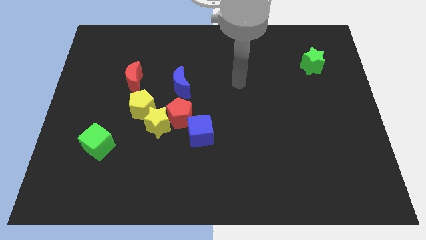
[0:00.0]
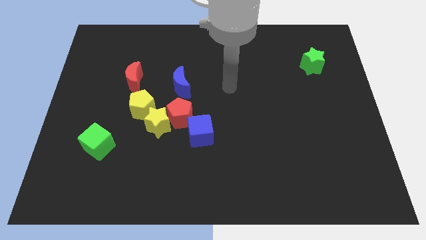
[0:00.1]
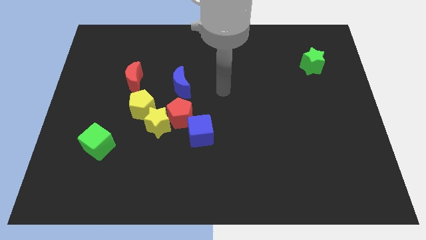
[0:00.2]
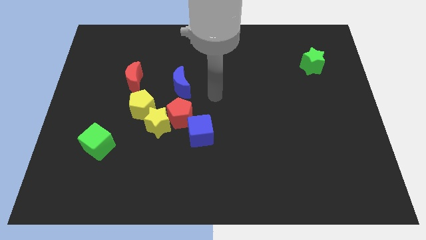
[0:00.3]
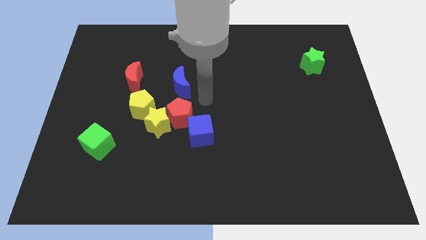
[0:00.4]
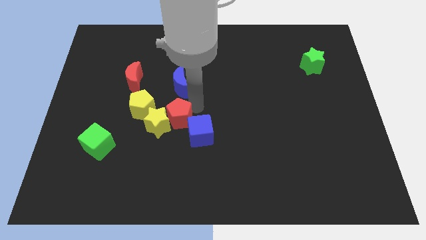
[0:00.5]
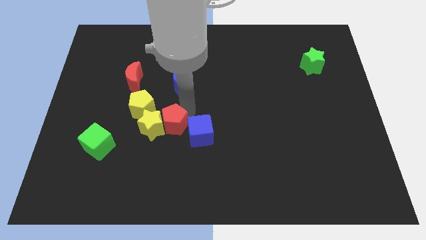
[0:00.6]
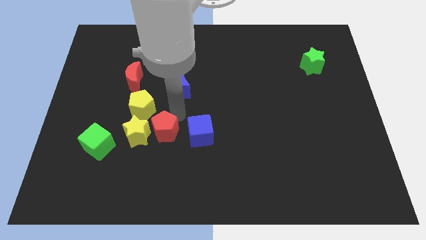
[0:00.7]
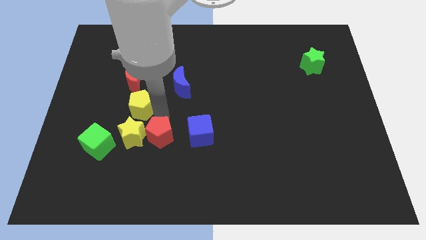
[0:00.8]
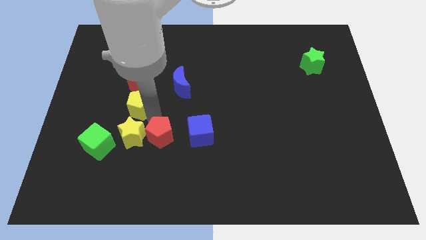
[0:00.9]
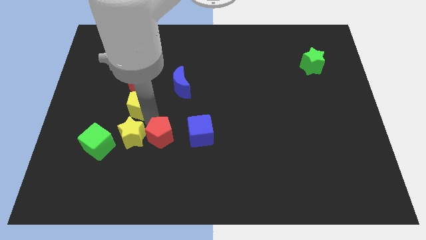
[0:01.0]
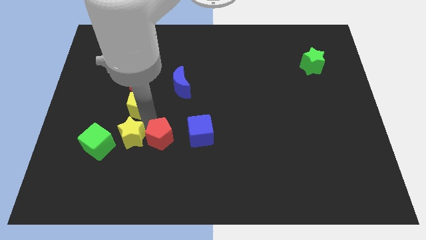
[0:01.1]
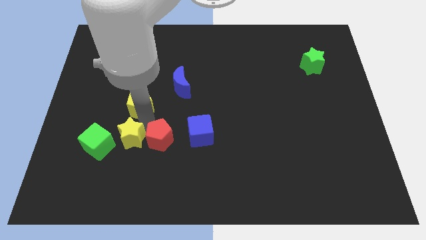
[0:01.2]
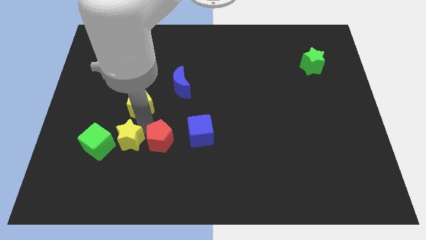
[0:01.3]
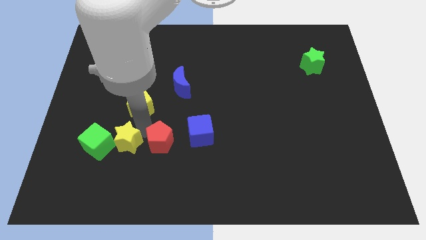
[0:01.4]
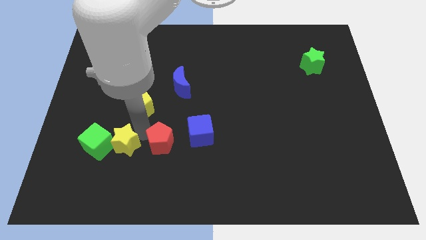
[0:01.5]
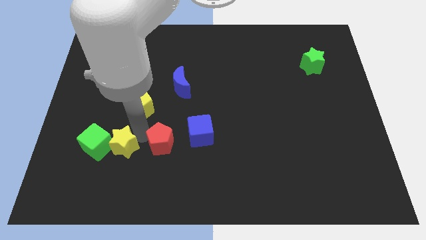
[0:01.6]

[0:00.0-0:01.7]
move the yellow star away from the red pentagon, yellow pentagon, and blue cube

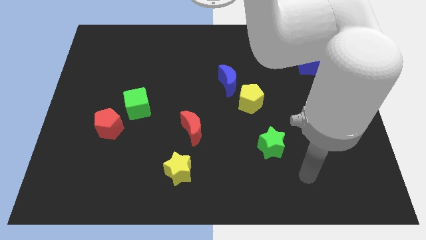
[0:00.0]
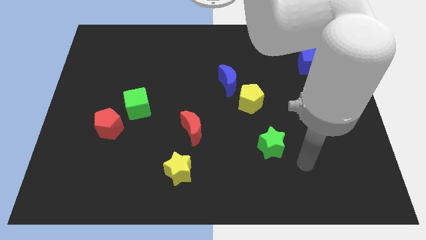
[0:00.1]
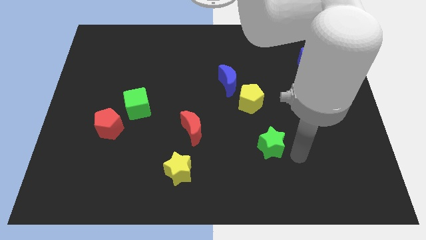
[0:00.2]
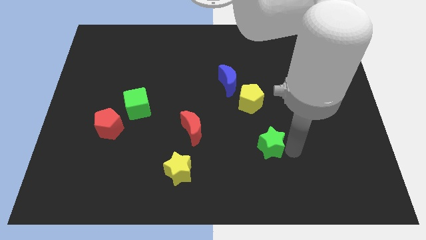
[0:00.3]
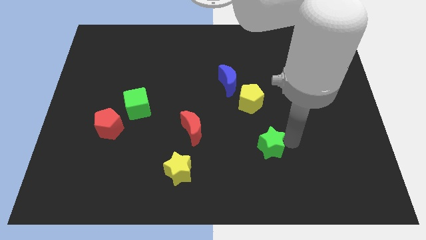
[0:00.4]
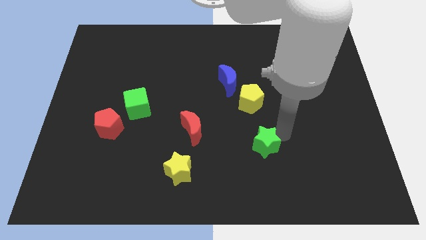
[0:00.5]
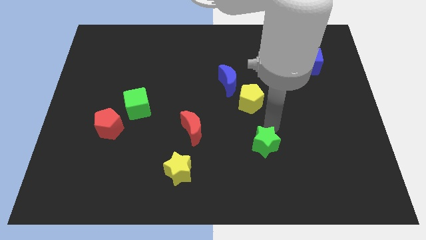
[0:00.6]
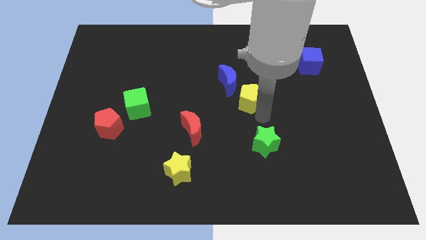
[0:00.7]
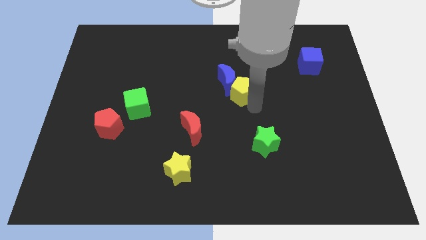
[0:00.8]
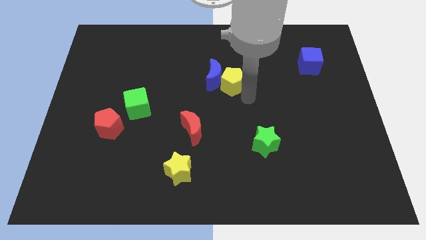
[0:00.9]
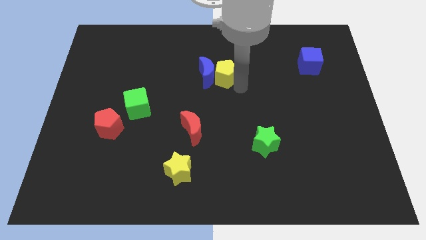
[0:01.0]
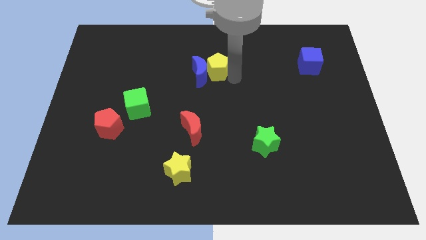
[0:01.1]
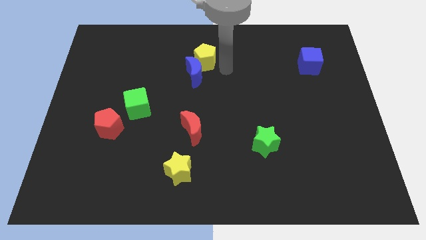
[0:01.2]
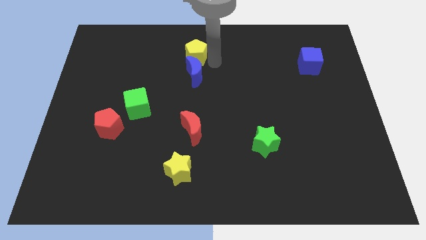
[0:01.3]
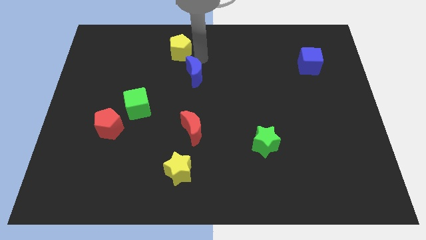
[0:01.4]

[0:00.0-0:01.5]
separate the blue moon from the yellow pentagon

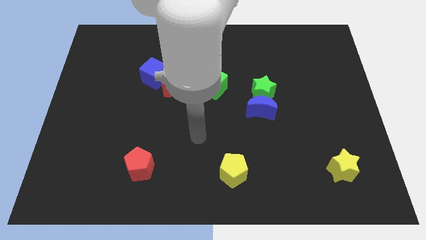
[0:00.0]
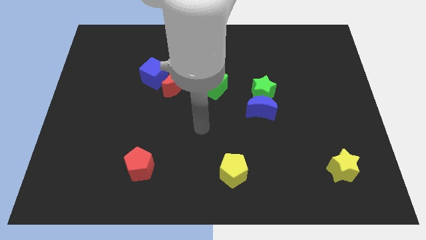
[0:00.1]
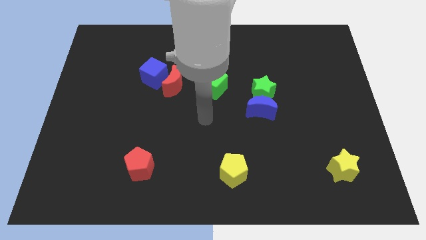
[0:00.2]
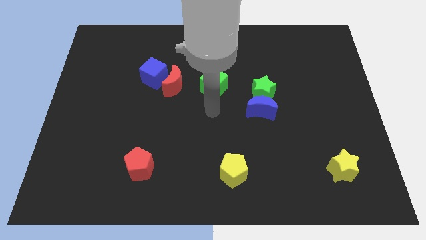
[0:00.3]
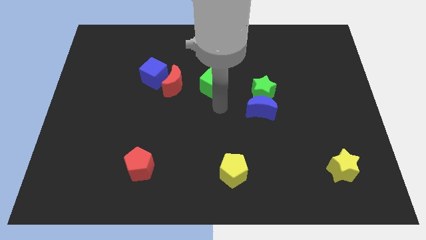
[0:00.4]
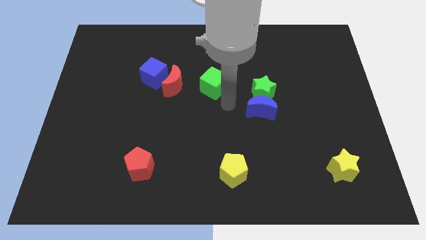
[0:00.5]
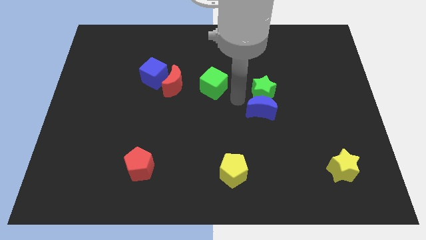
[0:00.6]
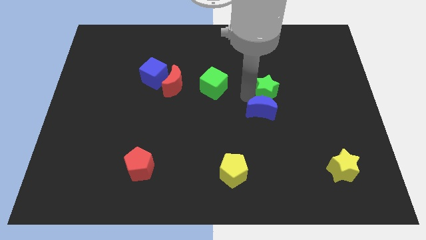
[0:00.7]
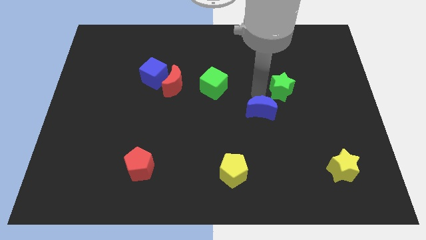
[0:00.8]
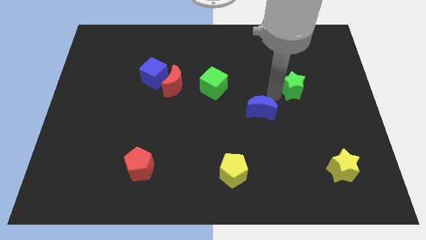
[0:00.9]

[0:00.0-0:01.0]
pull the blue moon apart from the green star

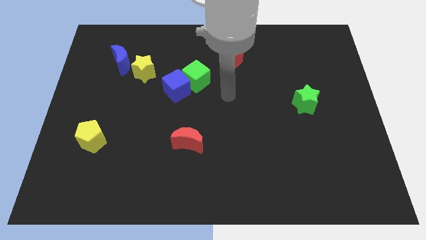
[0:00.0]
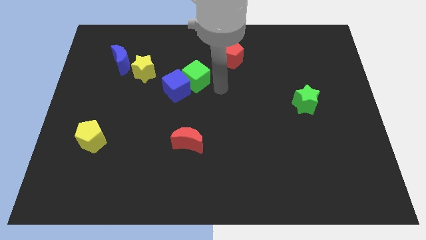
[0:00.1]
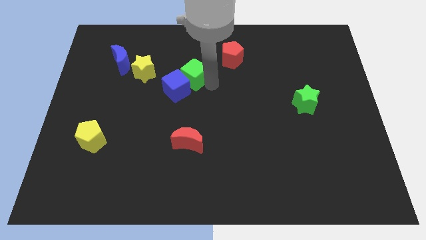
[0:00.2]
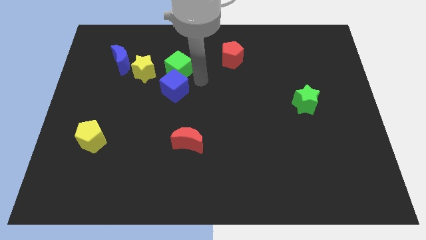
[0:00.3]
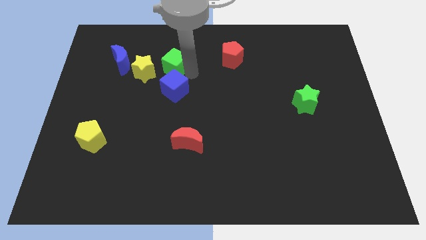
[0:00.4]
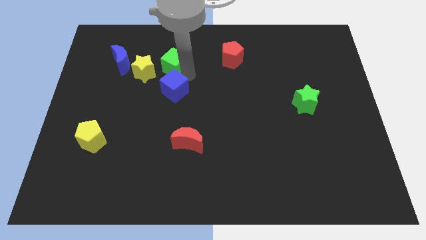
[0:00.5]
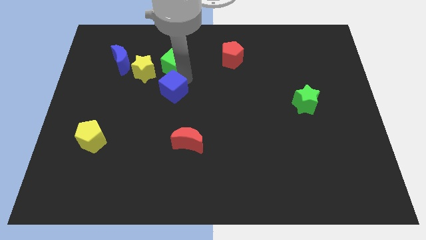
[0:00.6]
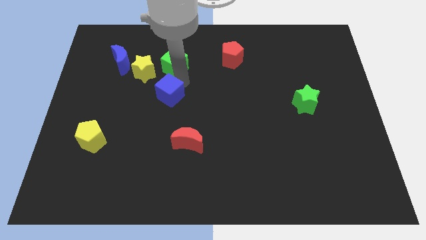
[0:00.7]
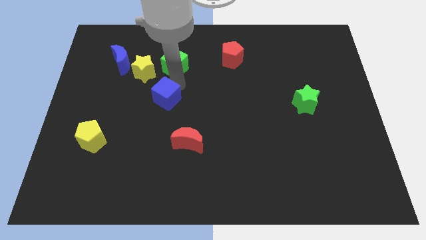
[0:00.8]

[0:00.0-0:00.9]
separate the blue cube from the green cube

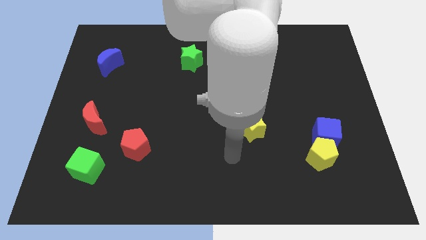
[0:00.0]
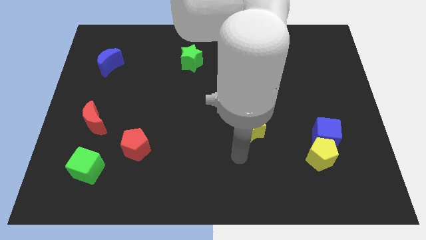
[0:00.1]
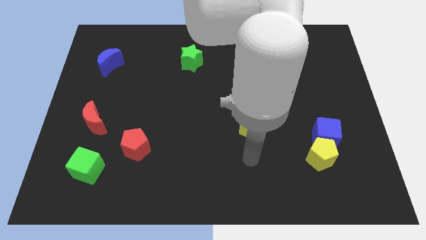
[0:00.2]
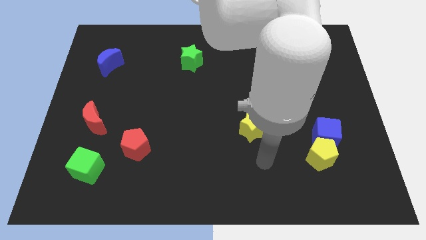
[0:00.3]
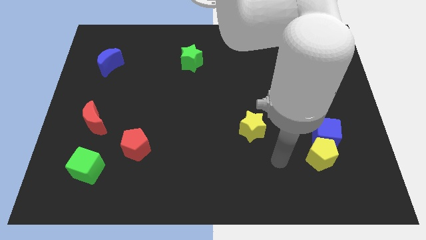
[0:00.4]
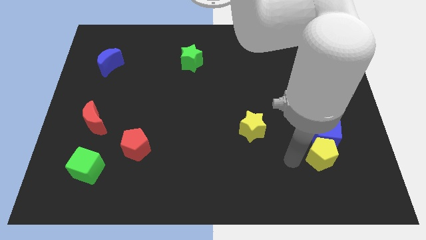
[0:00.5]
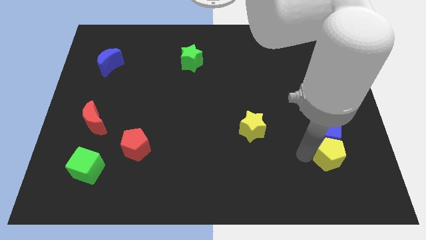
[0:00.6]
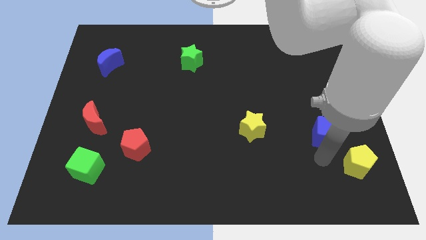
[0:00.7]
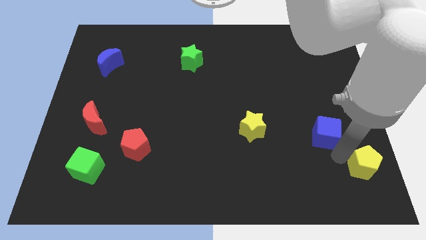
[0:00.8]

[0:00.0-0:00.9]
move the blue cube away from the yellow pentagon

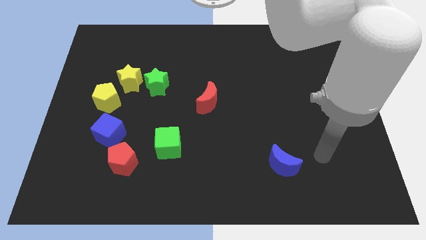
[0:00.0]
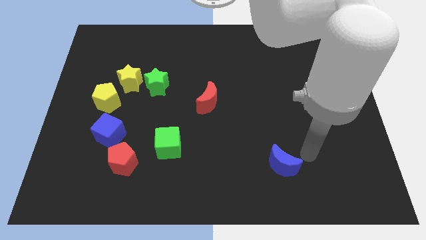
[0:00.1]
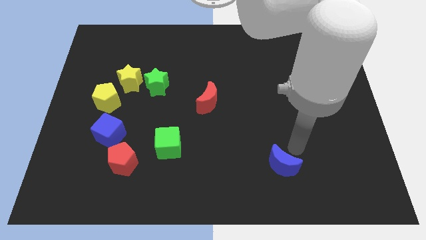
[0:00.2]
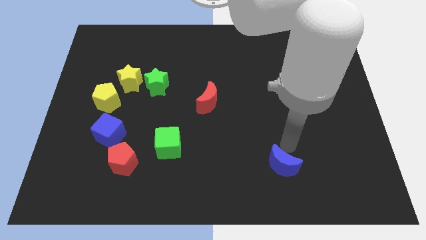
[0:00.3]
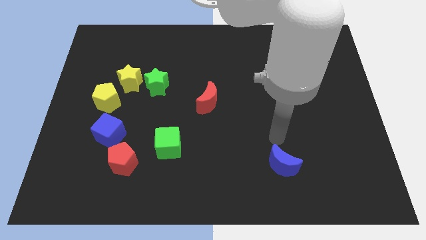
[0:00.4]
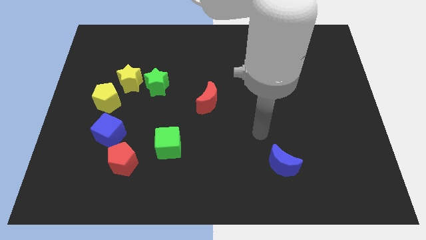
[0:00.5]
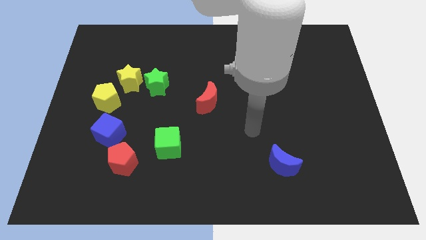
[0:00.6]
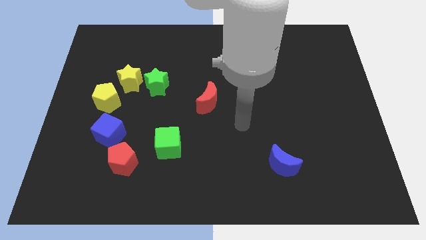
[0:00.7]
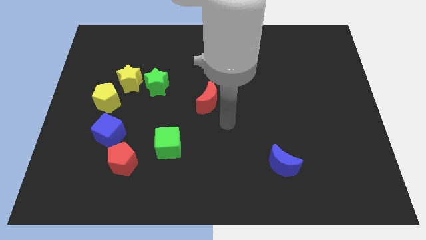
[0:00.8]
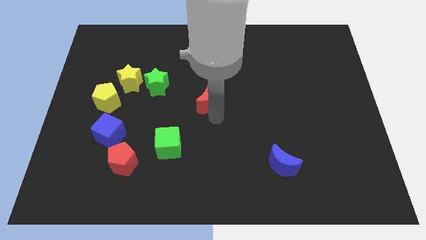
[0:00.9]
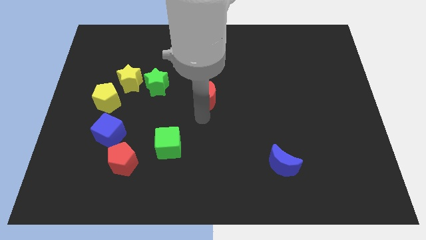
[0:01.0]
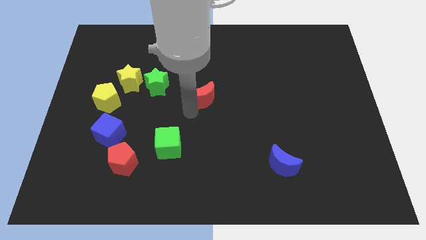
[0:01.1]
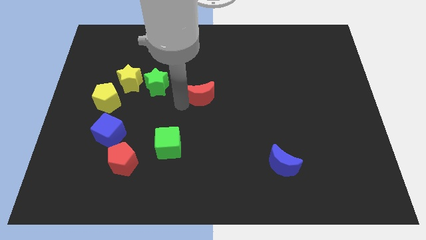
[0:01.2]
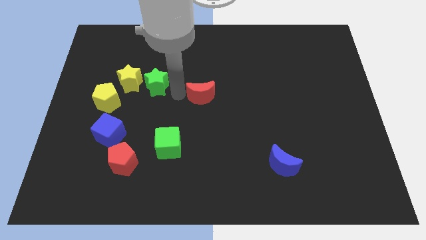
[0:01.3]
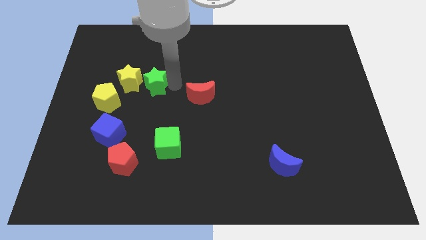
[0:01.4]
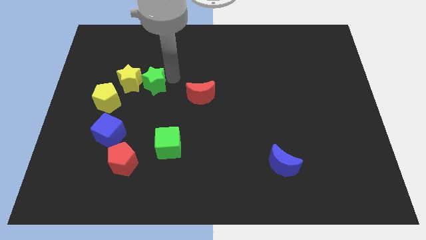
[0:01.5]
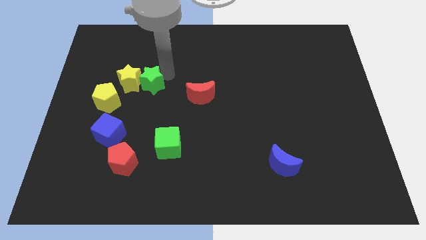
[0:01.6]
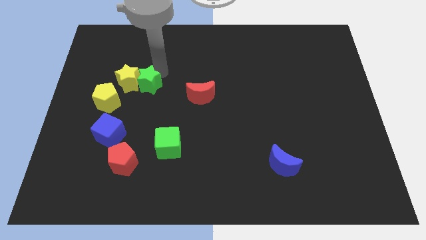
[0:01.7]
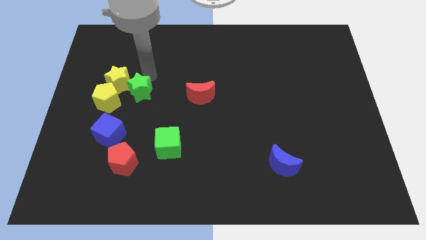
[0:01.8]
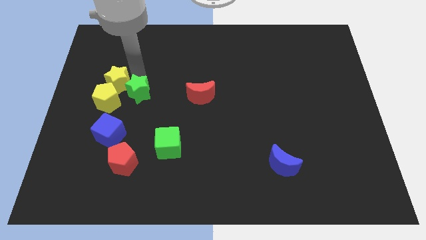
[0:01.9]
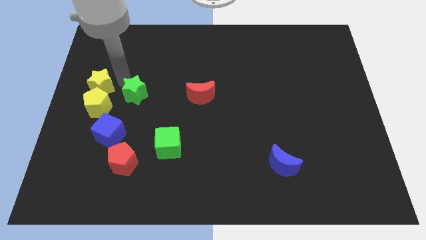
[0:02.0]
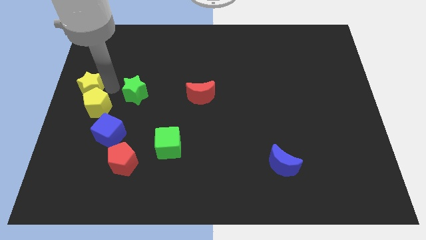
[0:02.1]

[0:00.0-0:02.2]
pull the green star apart from the yellow star

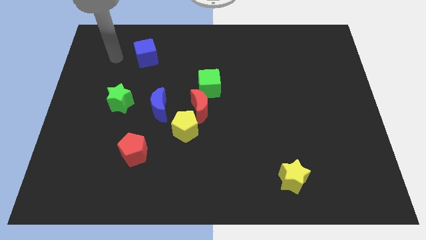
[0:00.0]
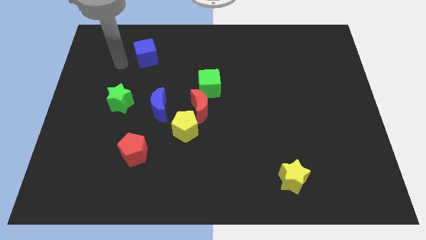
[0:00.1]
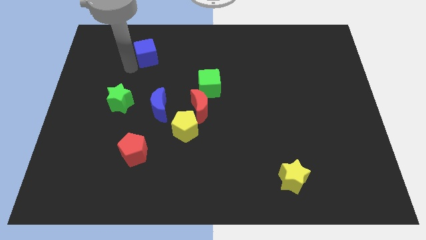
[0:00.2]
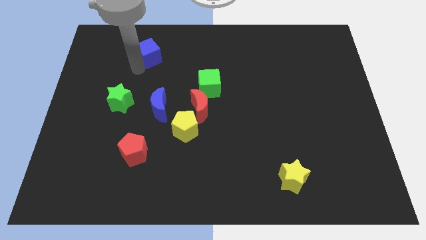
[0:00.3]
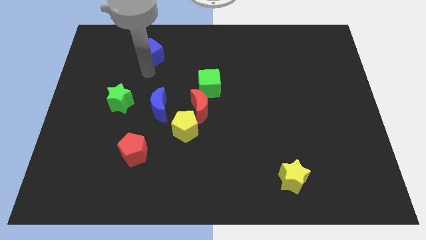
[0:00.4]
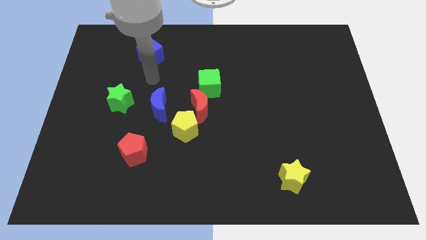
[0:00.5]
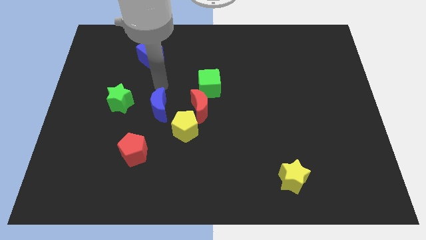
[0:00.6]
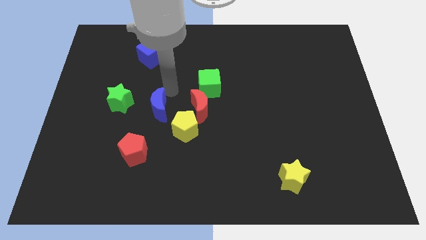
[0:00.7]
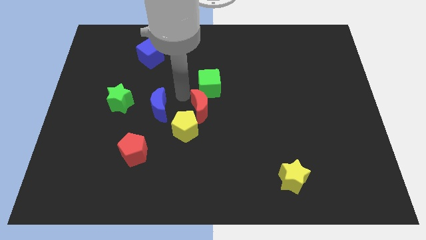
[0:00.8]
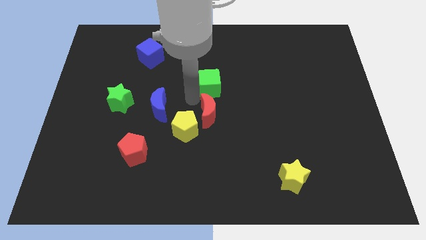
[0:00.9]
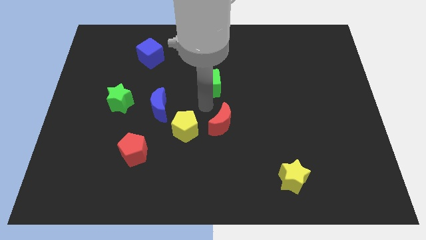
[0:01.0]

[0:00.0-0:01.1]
separate the green cube from the red moon
